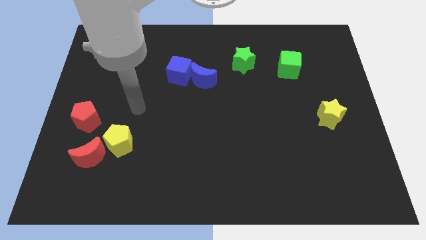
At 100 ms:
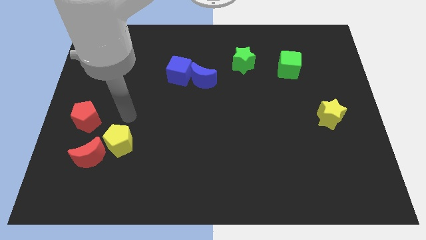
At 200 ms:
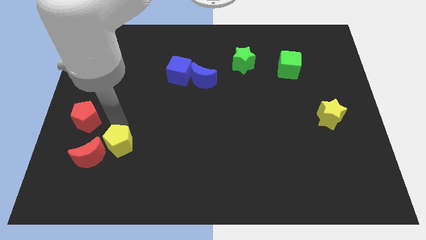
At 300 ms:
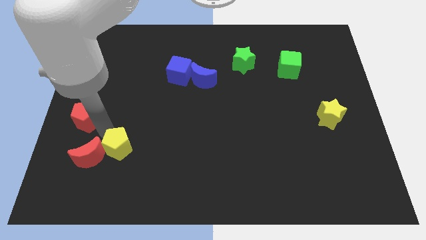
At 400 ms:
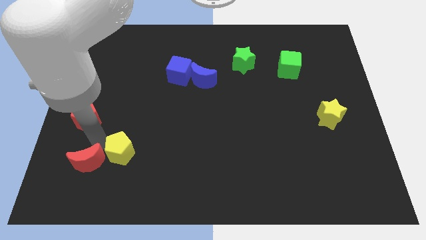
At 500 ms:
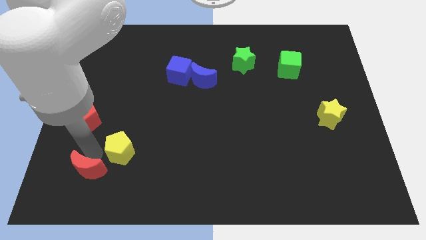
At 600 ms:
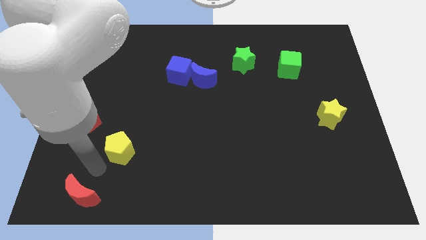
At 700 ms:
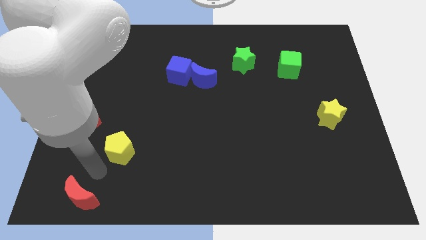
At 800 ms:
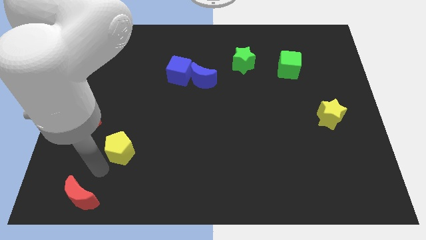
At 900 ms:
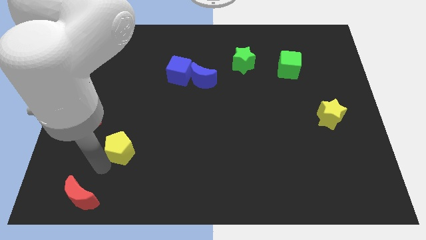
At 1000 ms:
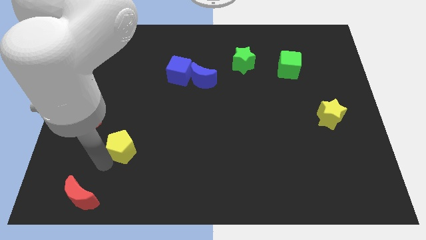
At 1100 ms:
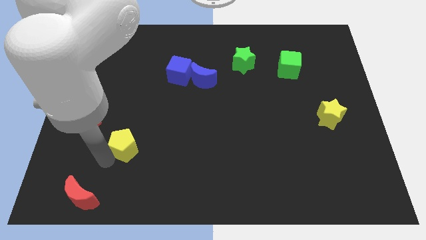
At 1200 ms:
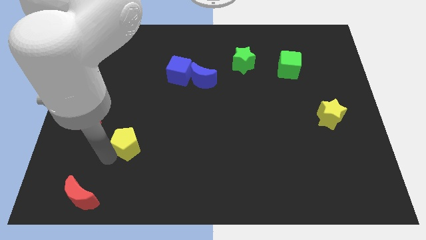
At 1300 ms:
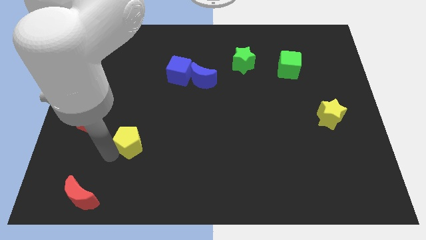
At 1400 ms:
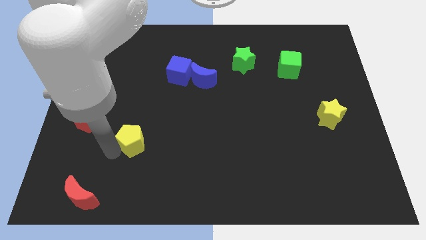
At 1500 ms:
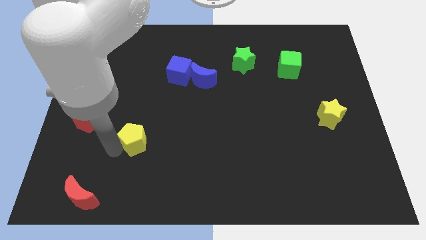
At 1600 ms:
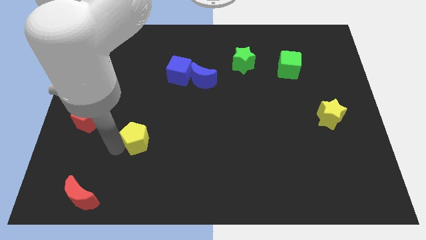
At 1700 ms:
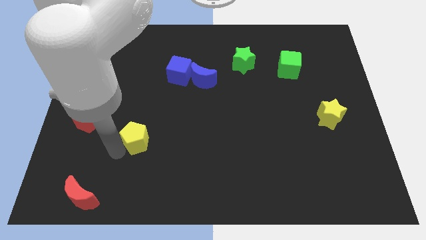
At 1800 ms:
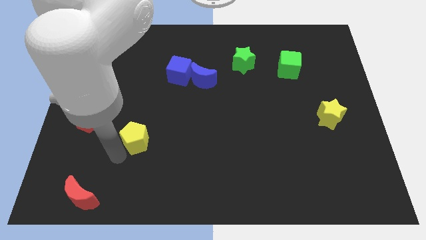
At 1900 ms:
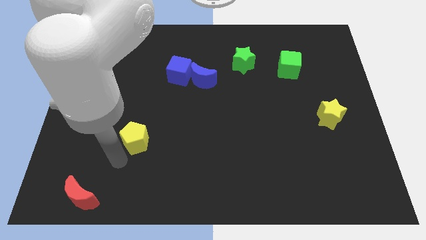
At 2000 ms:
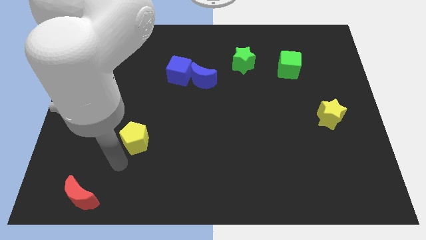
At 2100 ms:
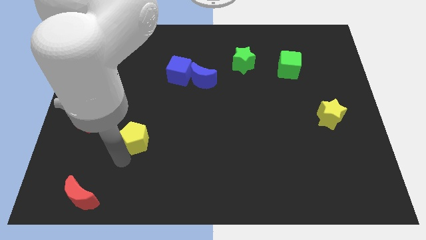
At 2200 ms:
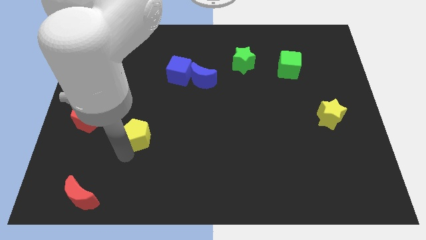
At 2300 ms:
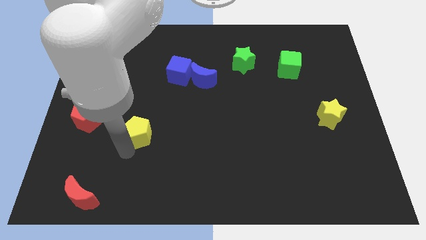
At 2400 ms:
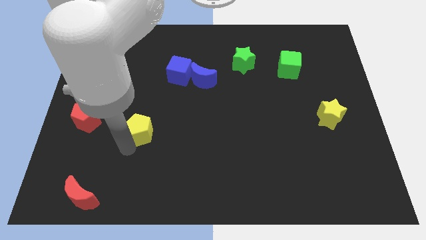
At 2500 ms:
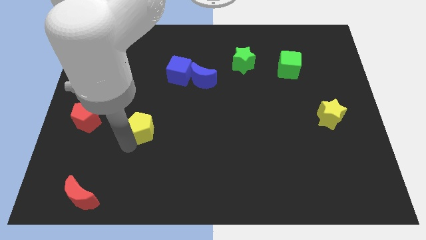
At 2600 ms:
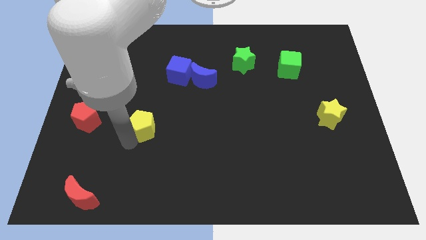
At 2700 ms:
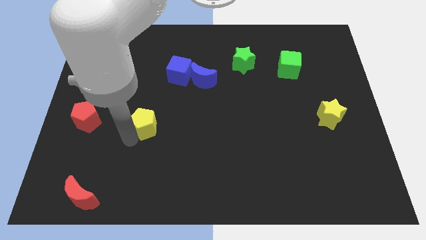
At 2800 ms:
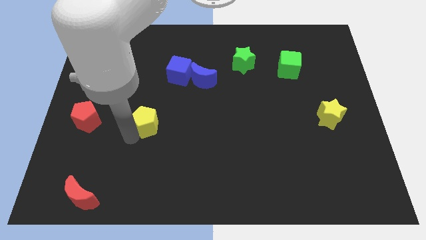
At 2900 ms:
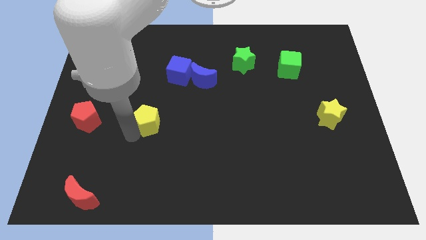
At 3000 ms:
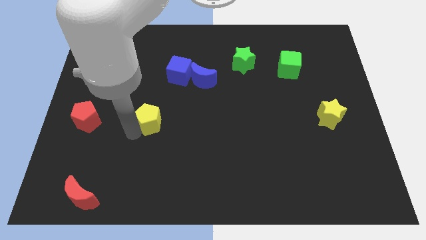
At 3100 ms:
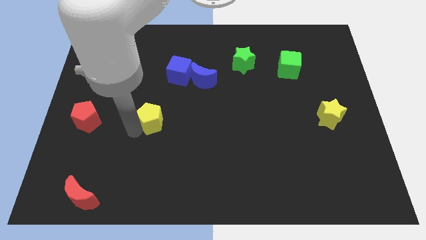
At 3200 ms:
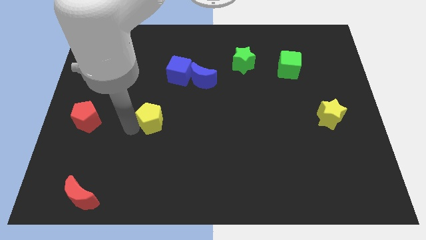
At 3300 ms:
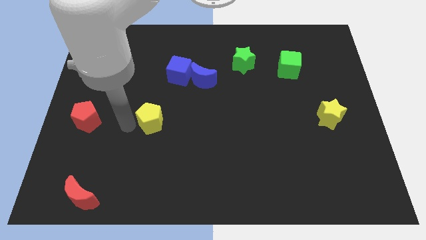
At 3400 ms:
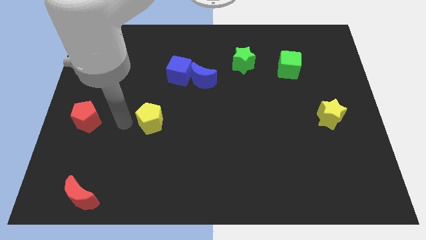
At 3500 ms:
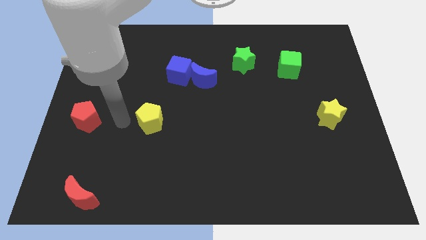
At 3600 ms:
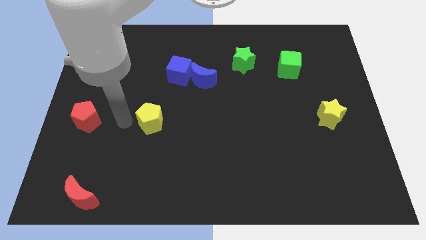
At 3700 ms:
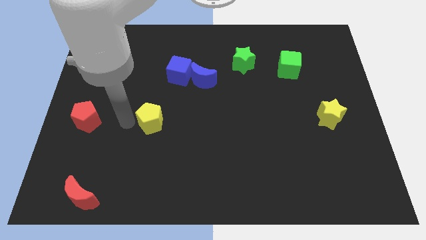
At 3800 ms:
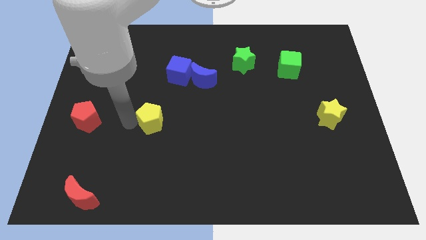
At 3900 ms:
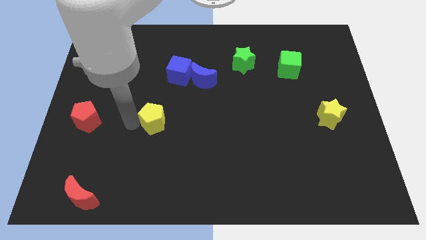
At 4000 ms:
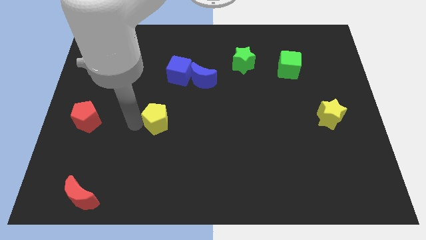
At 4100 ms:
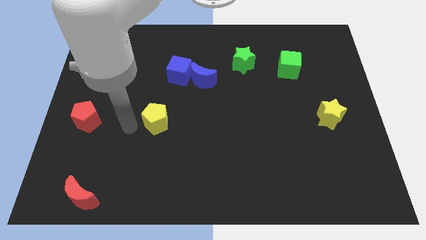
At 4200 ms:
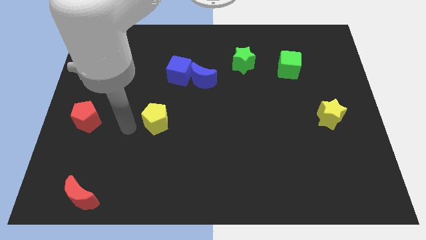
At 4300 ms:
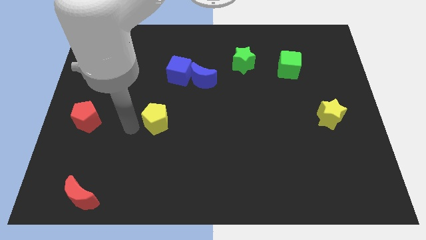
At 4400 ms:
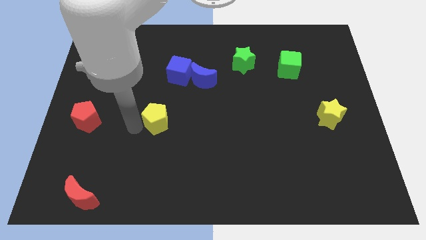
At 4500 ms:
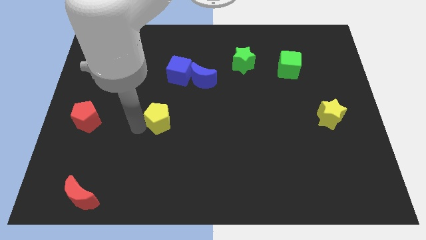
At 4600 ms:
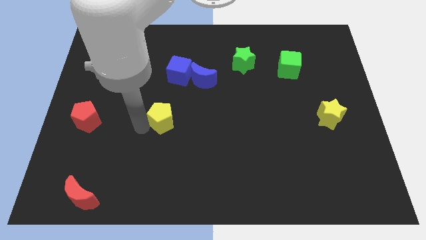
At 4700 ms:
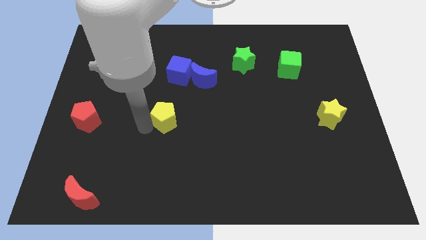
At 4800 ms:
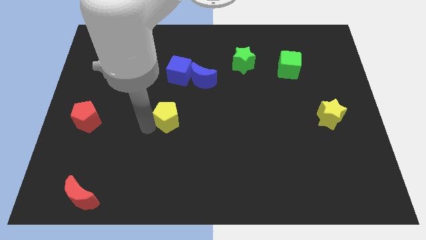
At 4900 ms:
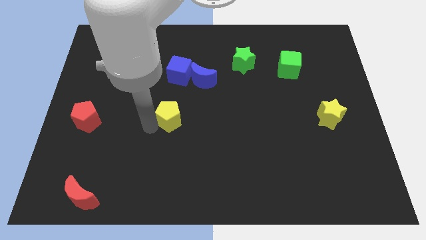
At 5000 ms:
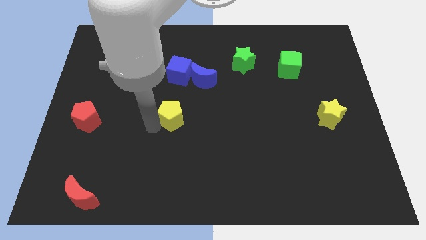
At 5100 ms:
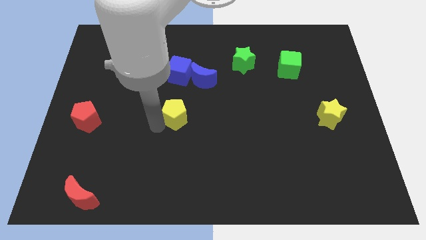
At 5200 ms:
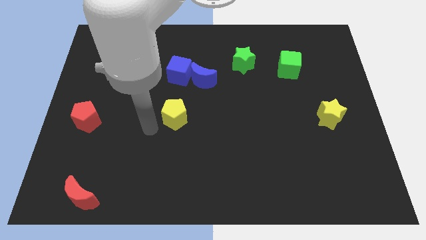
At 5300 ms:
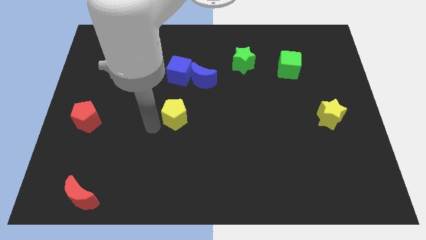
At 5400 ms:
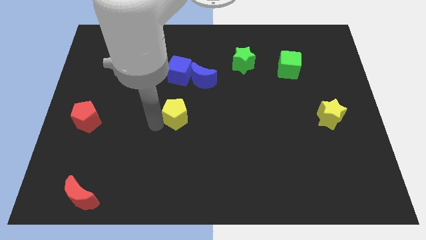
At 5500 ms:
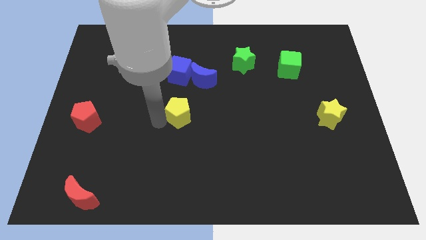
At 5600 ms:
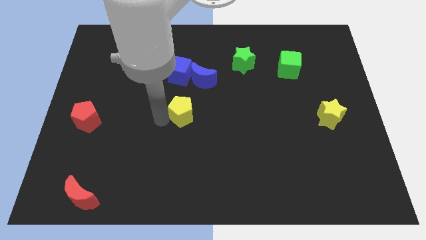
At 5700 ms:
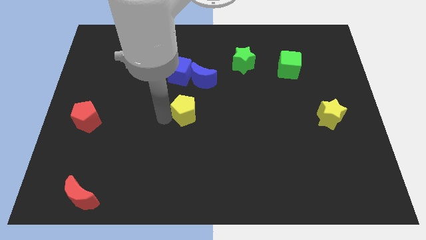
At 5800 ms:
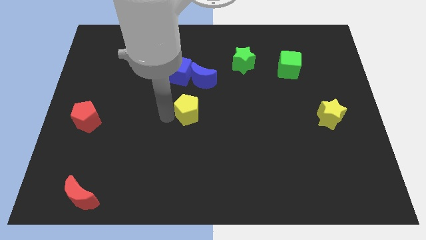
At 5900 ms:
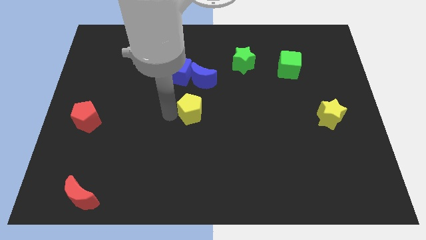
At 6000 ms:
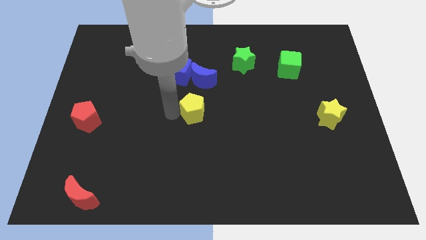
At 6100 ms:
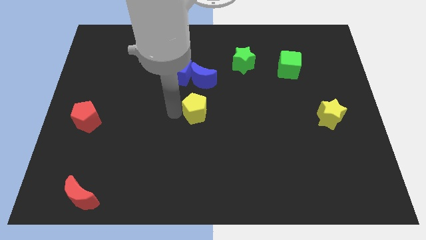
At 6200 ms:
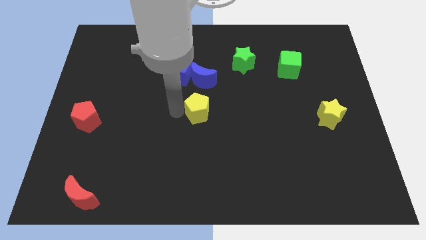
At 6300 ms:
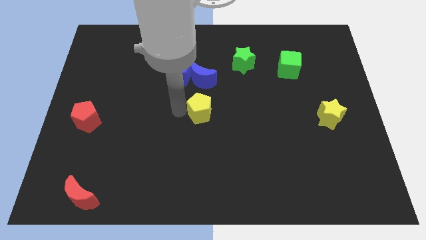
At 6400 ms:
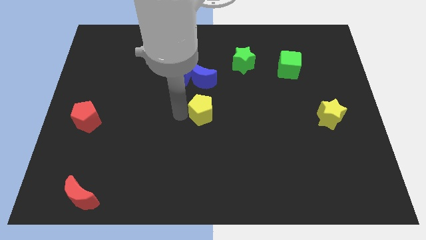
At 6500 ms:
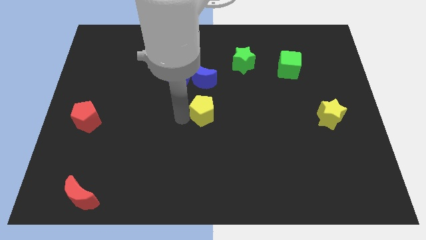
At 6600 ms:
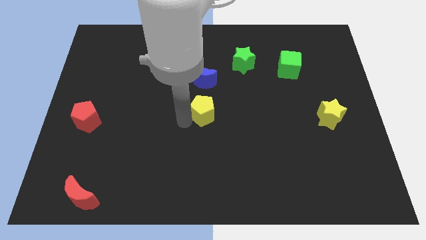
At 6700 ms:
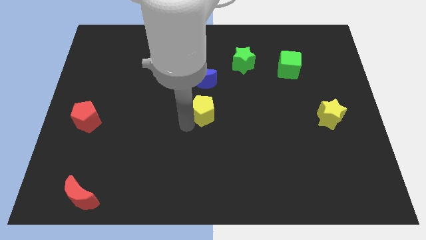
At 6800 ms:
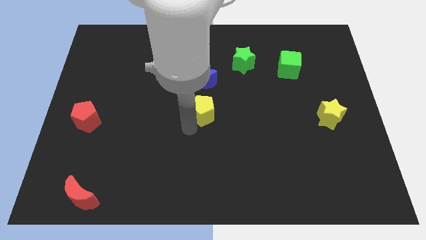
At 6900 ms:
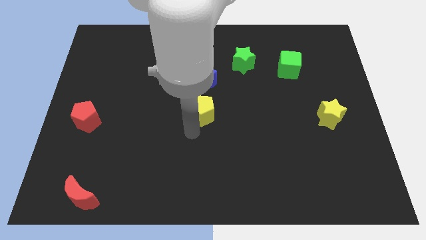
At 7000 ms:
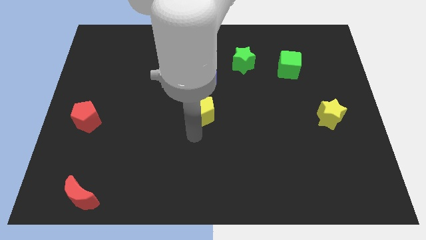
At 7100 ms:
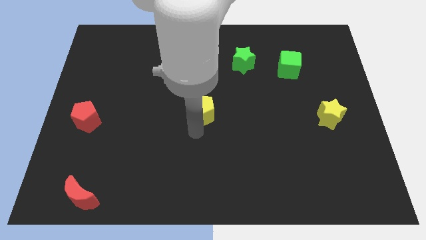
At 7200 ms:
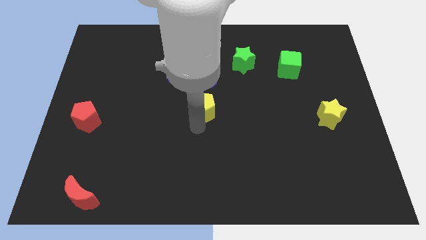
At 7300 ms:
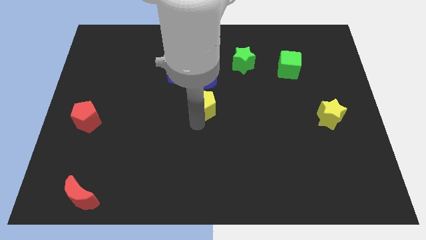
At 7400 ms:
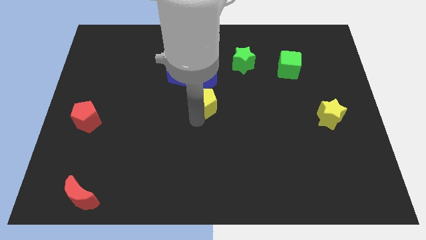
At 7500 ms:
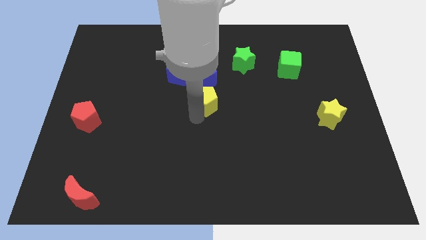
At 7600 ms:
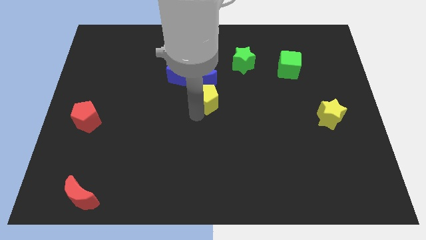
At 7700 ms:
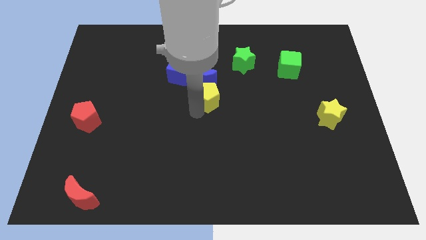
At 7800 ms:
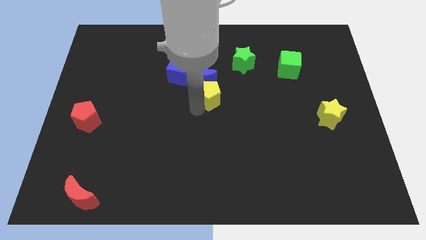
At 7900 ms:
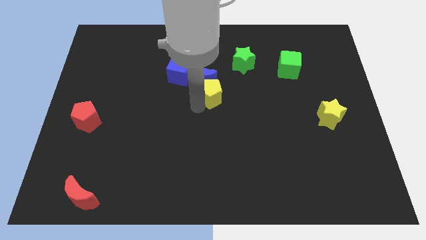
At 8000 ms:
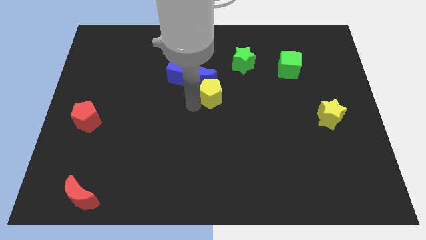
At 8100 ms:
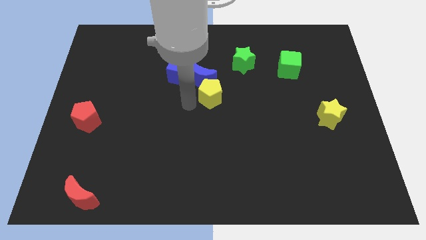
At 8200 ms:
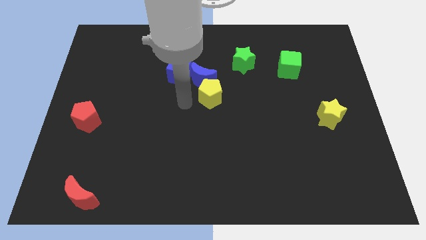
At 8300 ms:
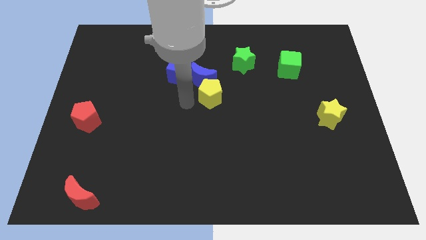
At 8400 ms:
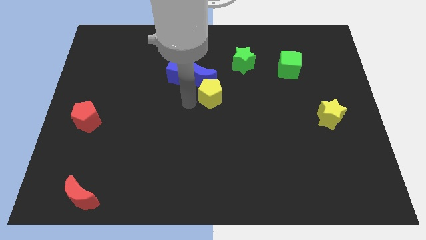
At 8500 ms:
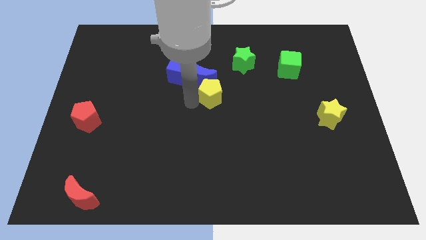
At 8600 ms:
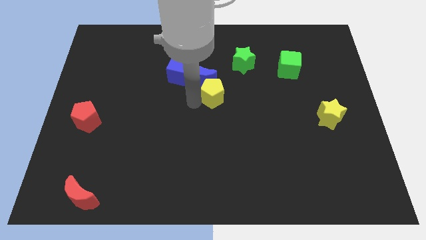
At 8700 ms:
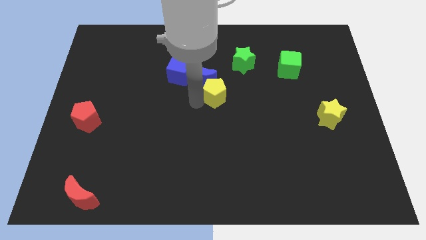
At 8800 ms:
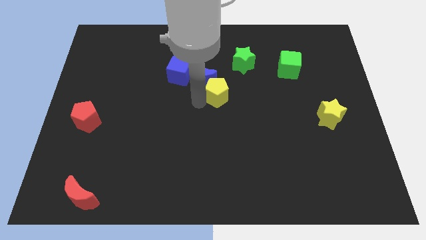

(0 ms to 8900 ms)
slide the yellow pentagon just right of the blue moon
